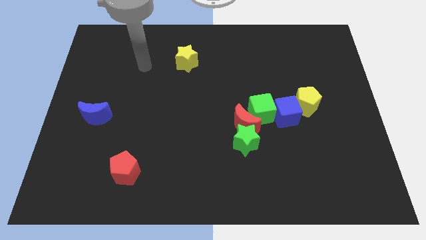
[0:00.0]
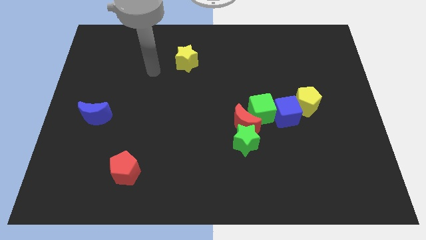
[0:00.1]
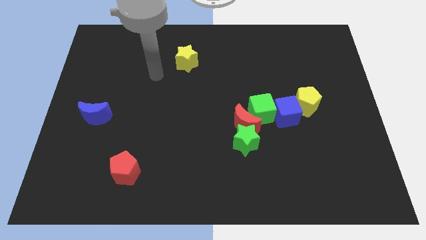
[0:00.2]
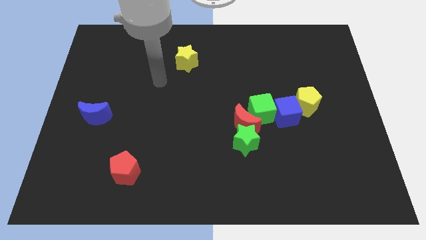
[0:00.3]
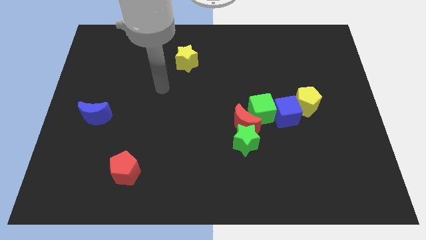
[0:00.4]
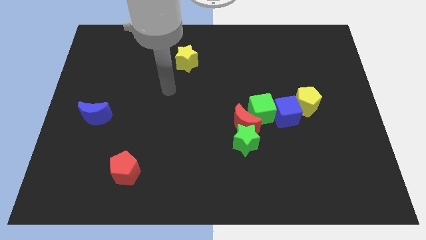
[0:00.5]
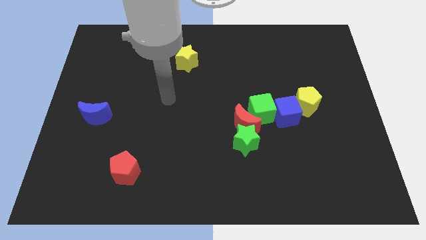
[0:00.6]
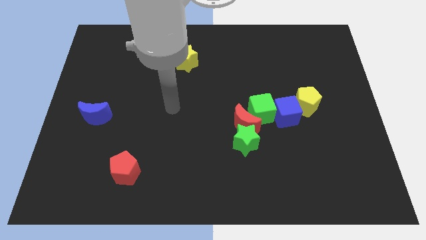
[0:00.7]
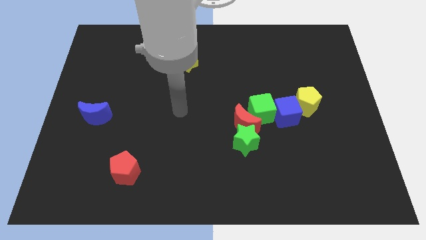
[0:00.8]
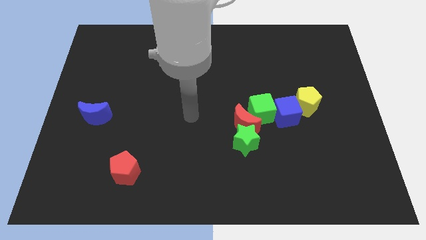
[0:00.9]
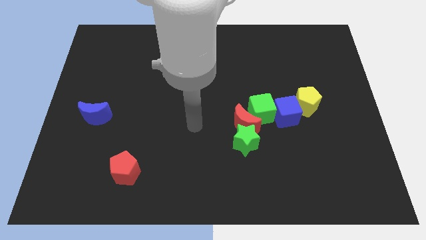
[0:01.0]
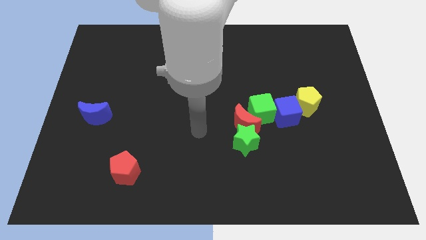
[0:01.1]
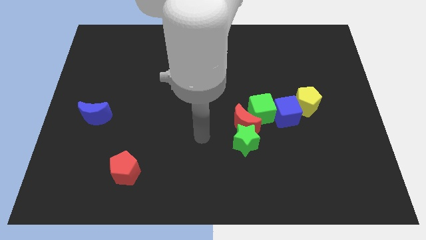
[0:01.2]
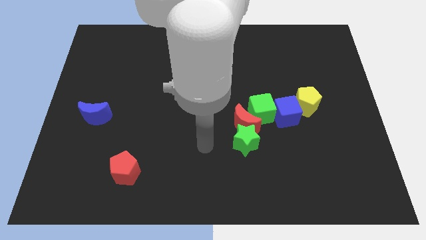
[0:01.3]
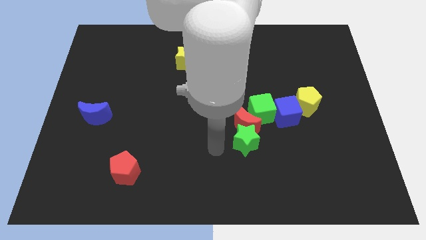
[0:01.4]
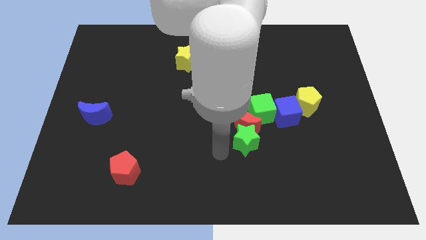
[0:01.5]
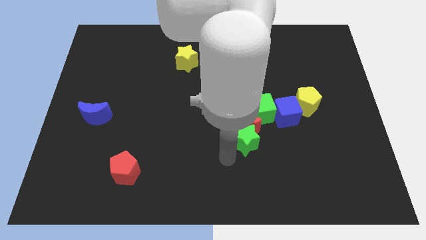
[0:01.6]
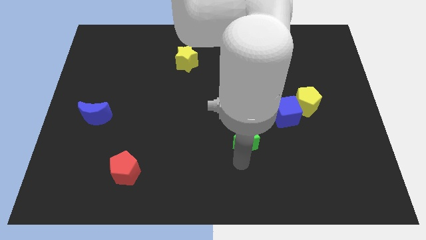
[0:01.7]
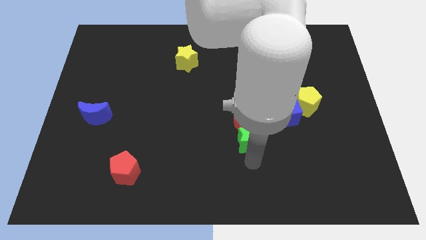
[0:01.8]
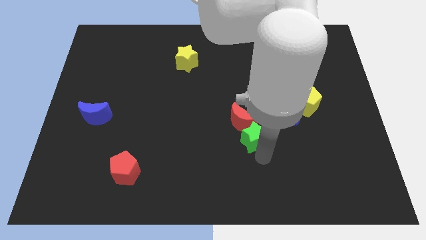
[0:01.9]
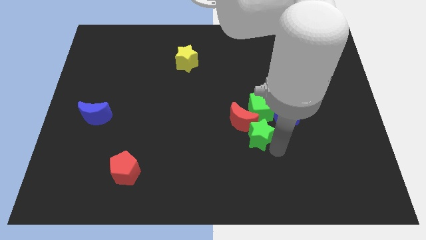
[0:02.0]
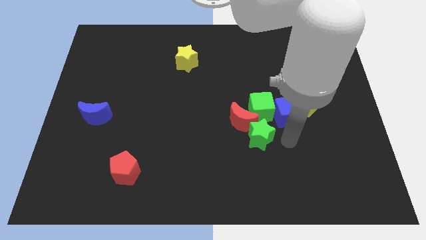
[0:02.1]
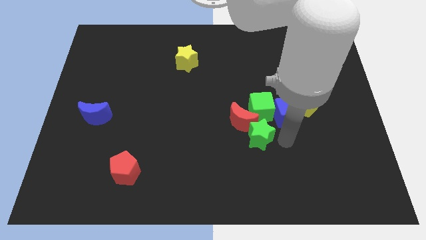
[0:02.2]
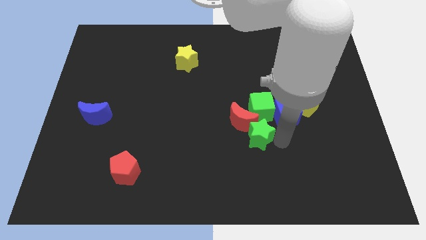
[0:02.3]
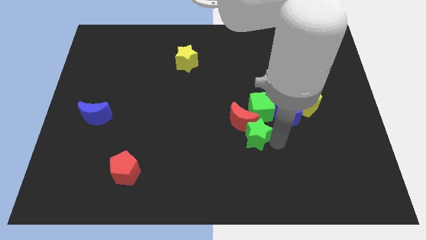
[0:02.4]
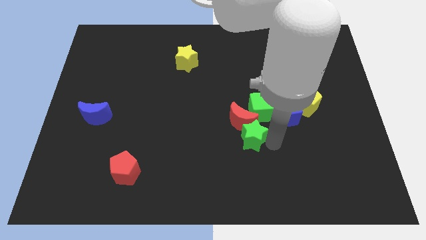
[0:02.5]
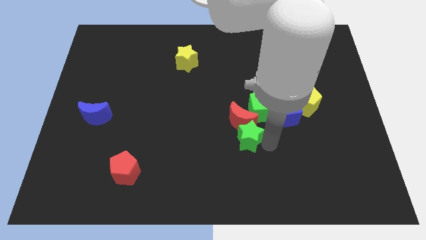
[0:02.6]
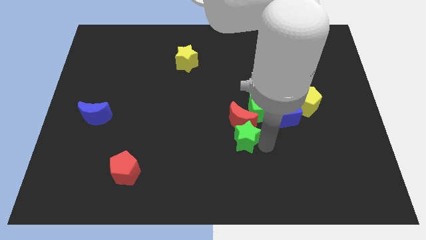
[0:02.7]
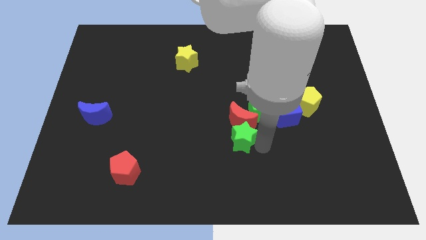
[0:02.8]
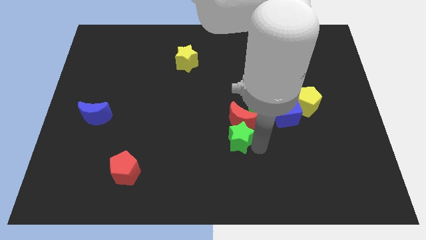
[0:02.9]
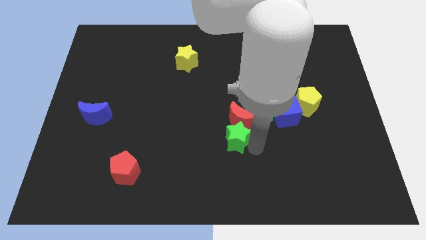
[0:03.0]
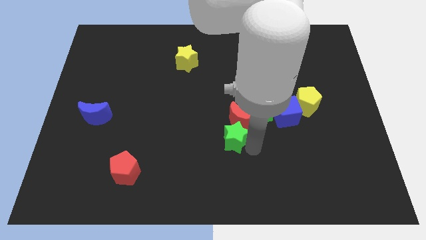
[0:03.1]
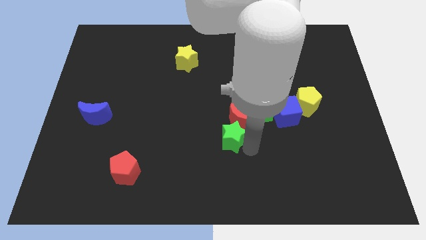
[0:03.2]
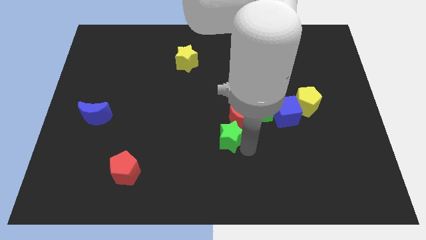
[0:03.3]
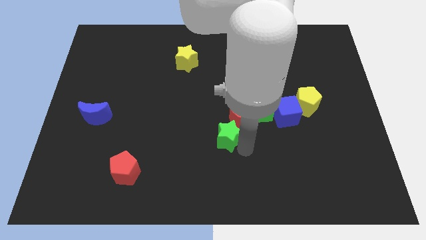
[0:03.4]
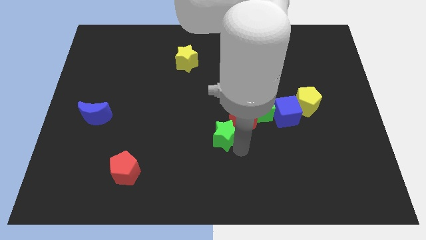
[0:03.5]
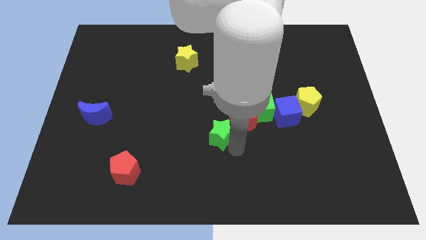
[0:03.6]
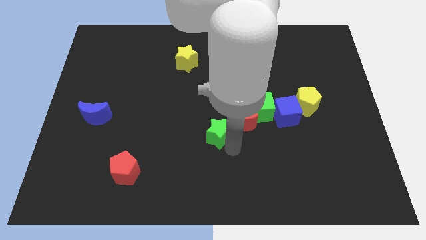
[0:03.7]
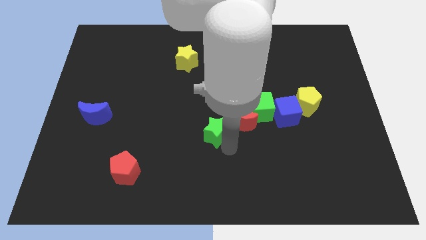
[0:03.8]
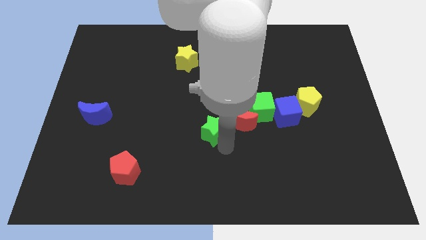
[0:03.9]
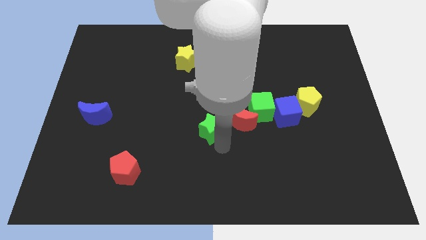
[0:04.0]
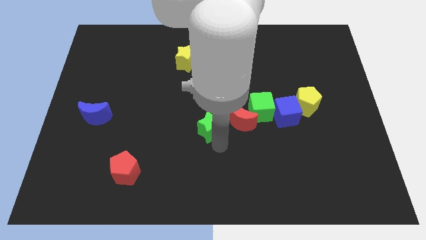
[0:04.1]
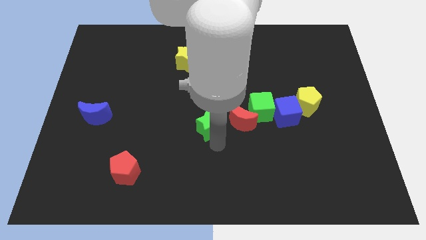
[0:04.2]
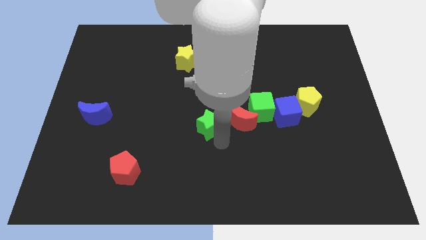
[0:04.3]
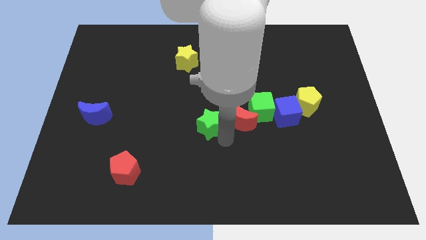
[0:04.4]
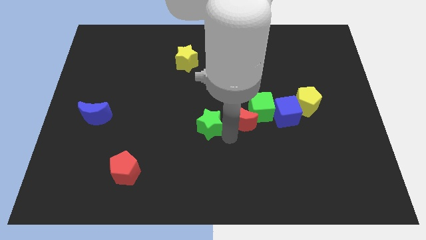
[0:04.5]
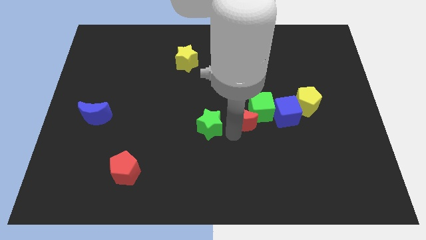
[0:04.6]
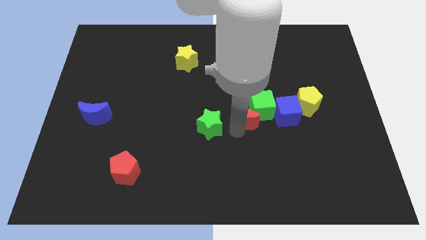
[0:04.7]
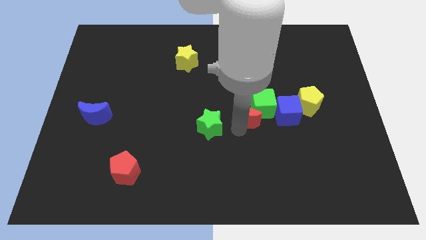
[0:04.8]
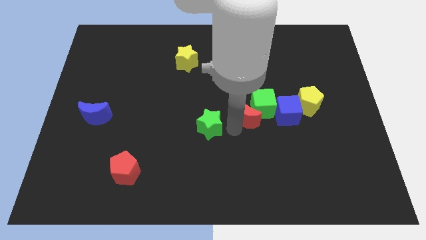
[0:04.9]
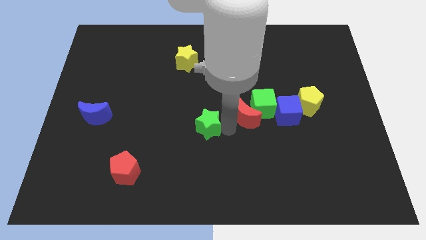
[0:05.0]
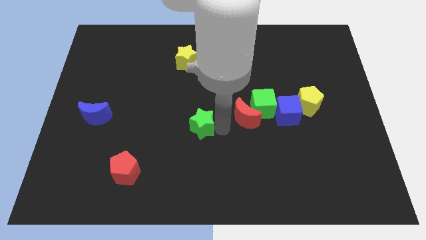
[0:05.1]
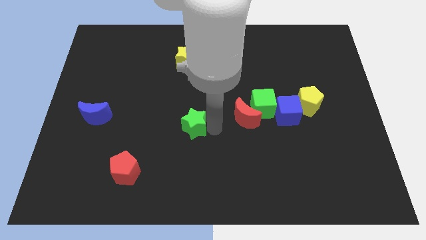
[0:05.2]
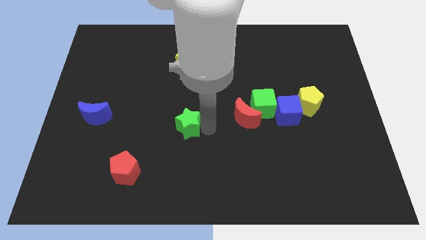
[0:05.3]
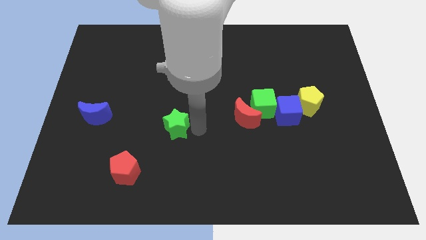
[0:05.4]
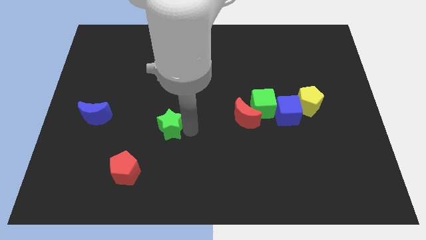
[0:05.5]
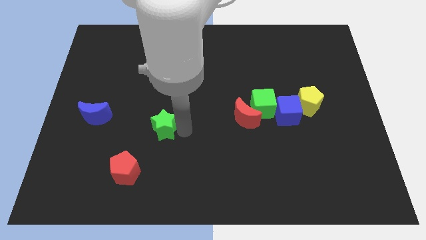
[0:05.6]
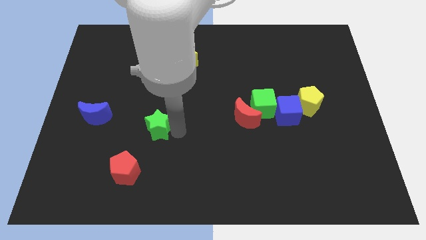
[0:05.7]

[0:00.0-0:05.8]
put the green star right of the blue moon

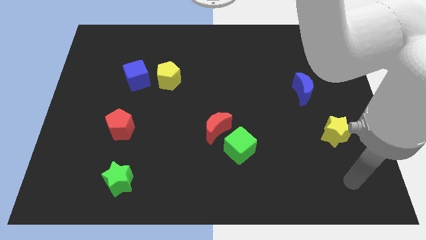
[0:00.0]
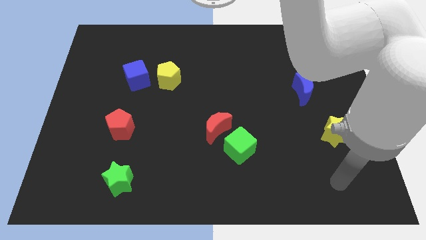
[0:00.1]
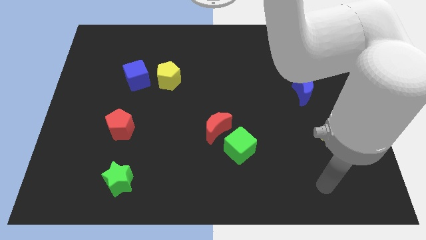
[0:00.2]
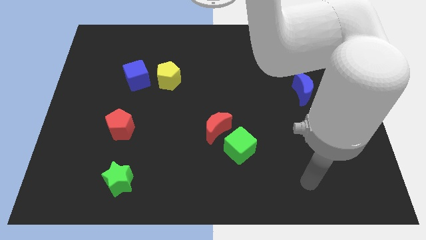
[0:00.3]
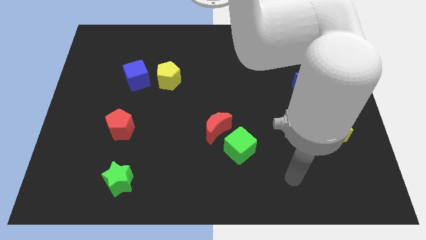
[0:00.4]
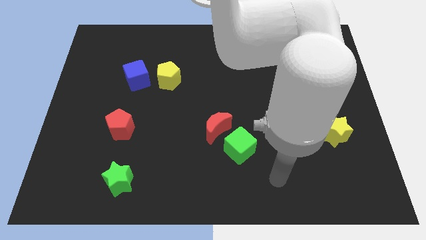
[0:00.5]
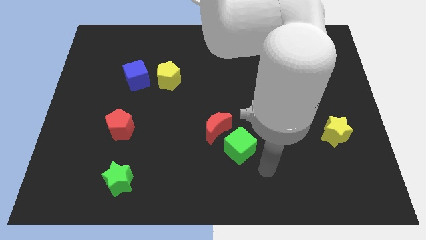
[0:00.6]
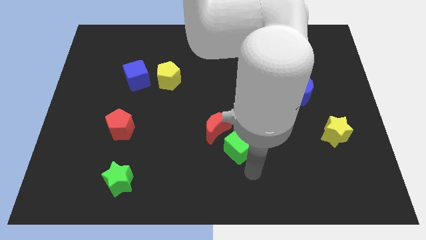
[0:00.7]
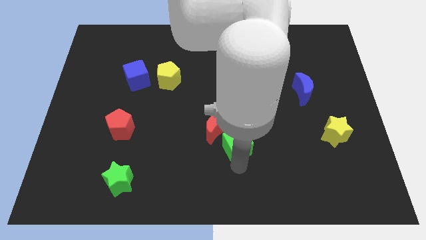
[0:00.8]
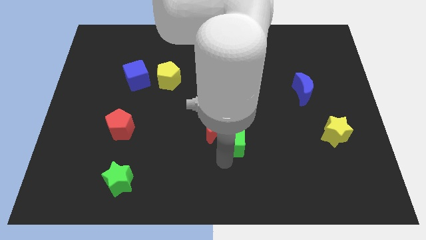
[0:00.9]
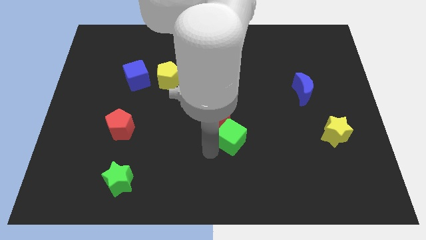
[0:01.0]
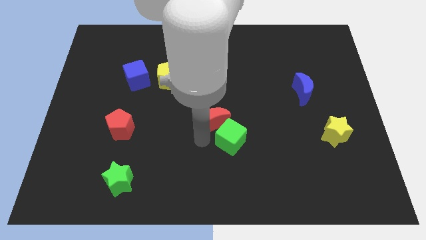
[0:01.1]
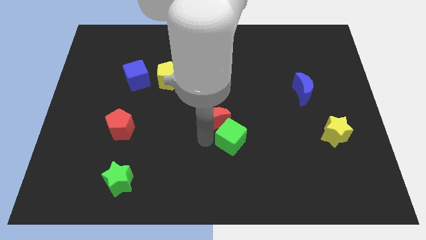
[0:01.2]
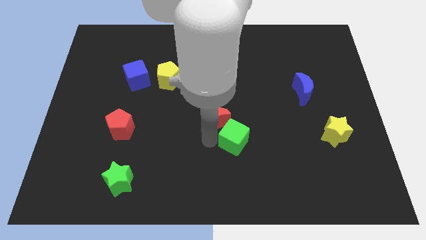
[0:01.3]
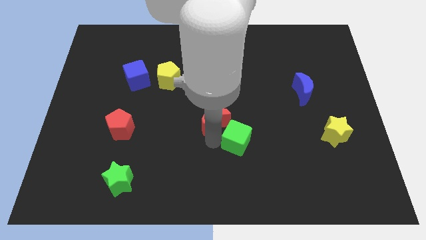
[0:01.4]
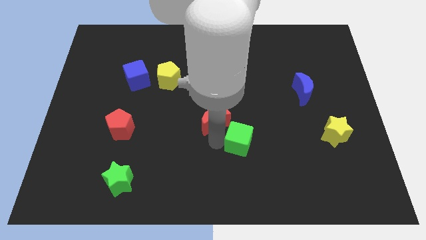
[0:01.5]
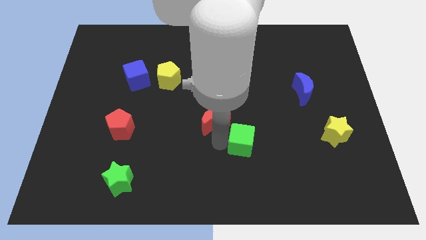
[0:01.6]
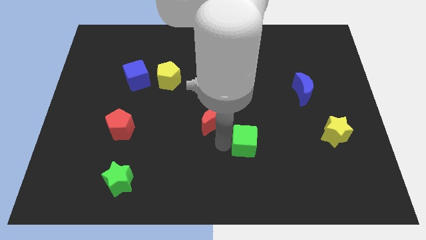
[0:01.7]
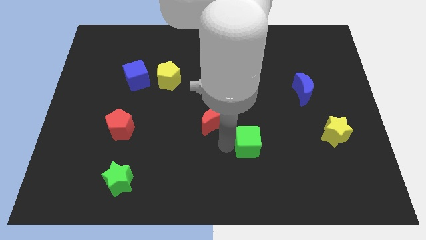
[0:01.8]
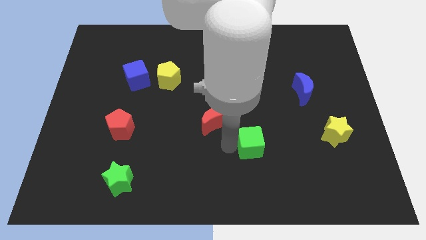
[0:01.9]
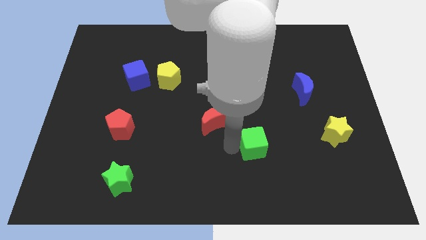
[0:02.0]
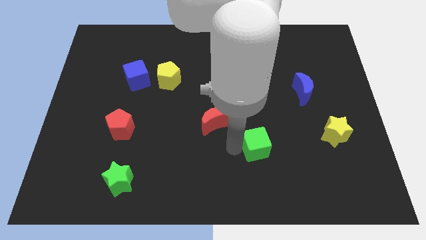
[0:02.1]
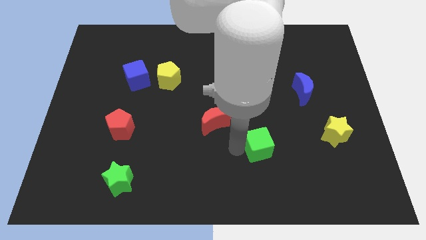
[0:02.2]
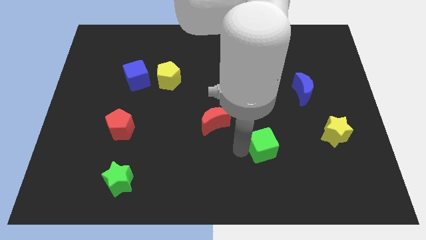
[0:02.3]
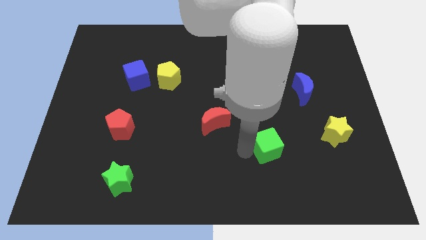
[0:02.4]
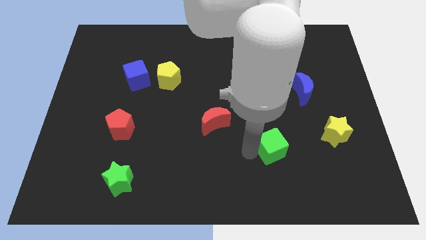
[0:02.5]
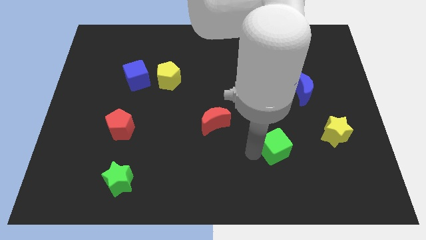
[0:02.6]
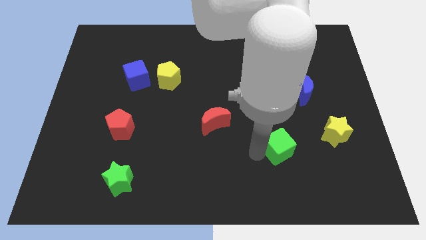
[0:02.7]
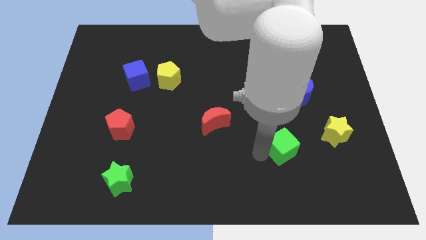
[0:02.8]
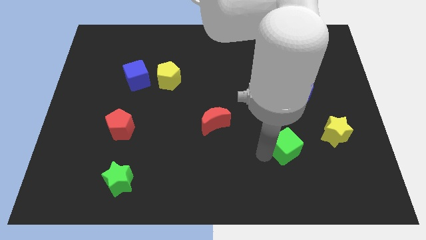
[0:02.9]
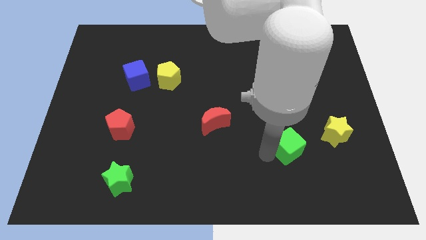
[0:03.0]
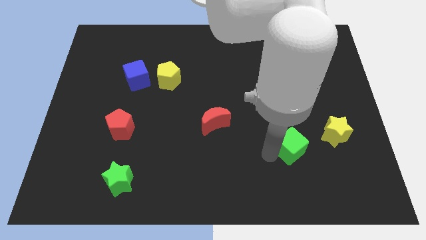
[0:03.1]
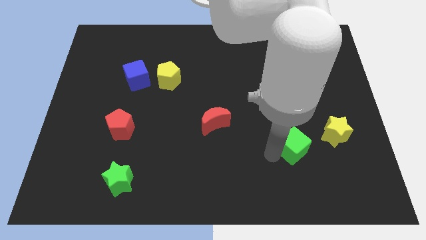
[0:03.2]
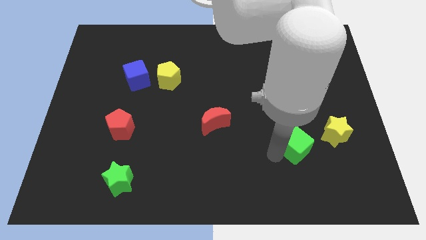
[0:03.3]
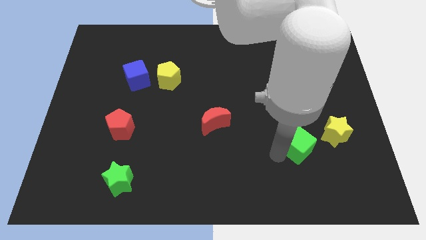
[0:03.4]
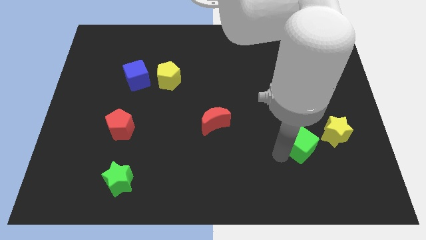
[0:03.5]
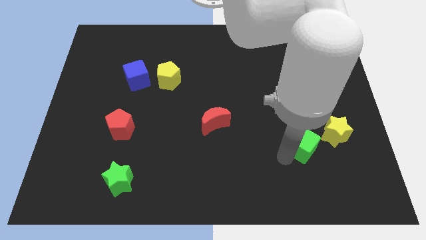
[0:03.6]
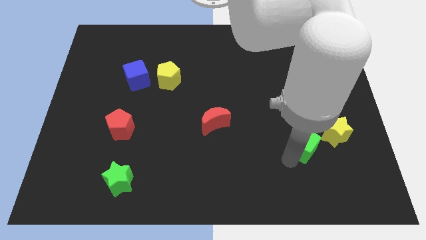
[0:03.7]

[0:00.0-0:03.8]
put the green cube below the blue moon
